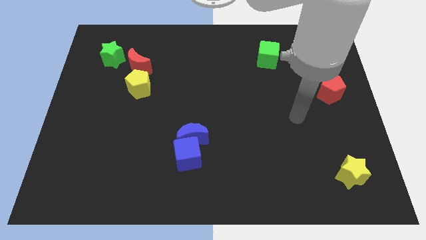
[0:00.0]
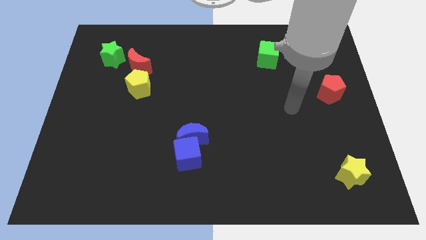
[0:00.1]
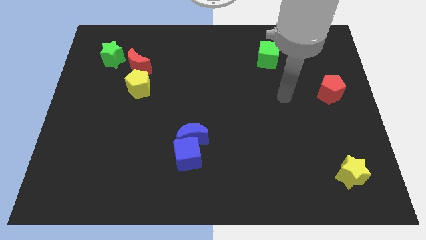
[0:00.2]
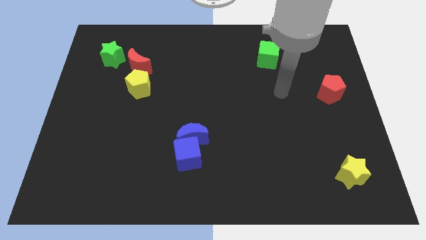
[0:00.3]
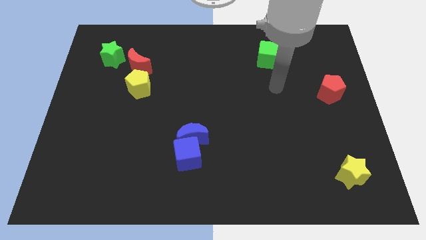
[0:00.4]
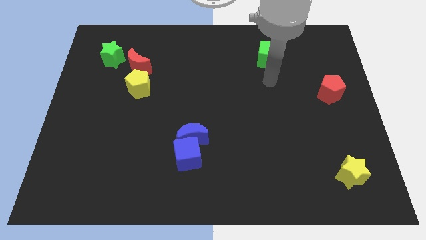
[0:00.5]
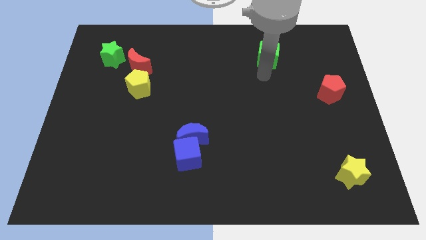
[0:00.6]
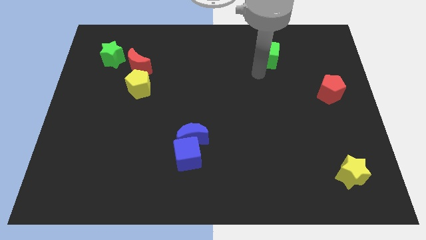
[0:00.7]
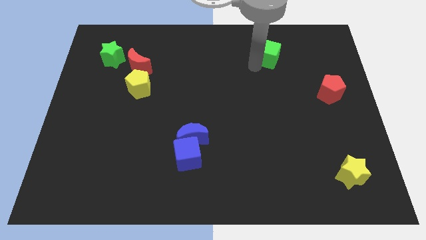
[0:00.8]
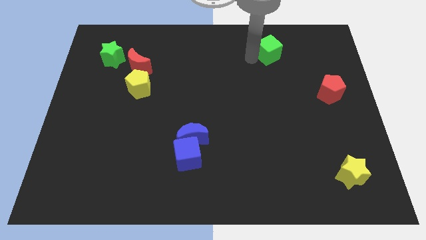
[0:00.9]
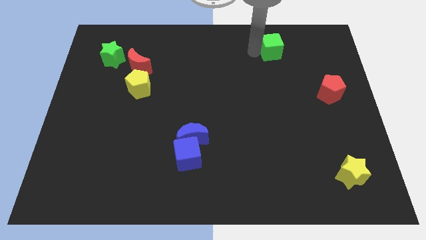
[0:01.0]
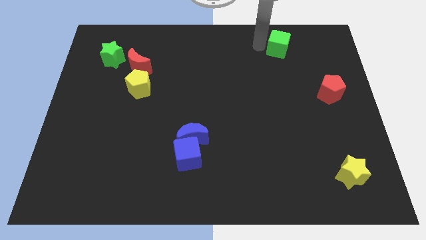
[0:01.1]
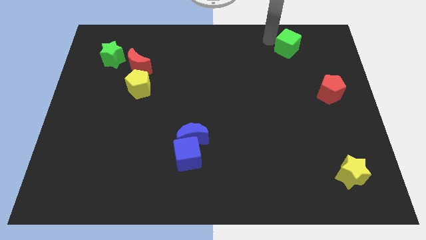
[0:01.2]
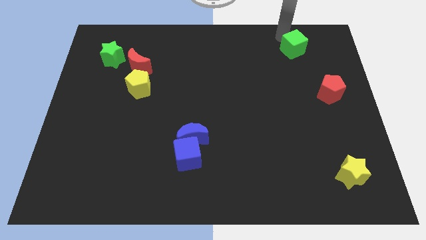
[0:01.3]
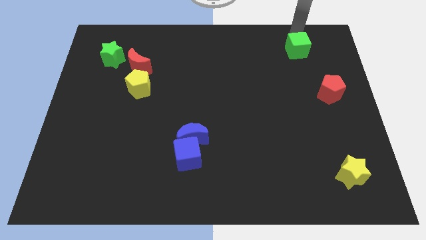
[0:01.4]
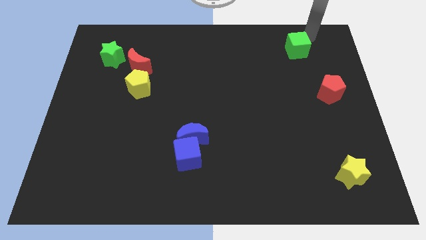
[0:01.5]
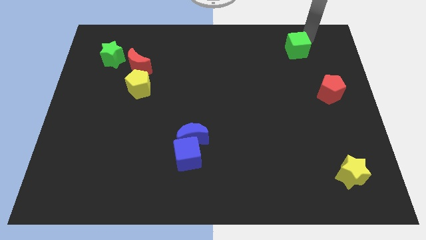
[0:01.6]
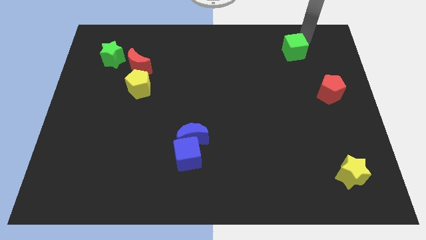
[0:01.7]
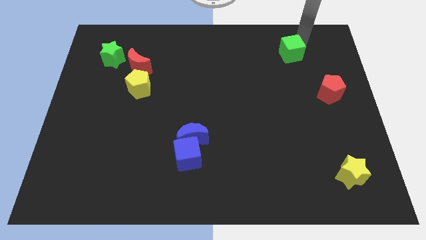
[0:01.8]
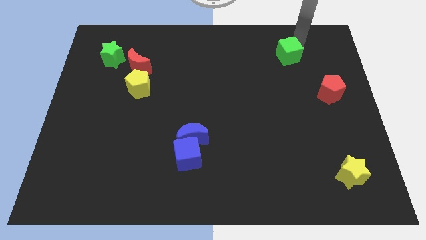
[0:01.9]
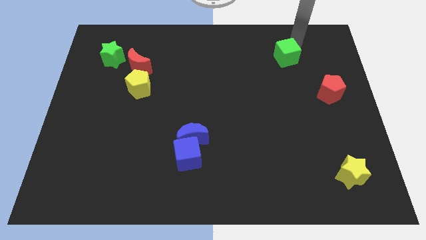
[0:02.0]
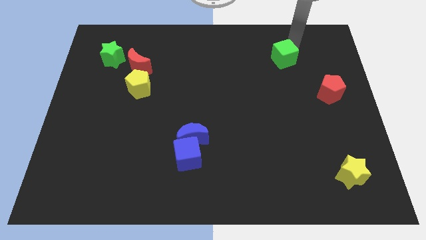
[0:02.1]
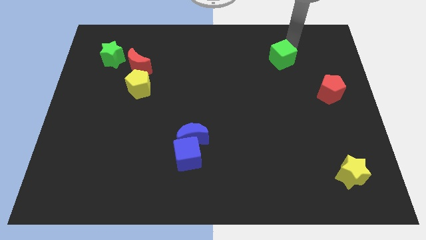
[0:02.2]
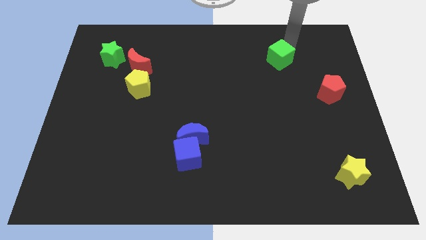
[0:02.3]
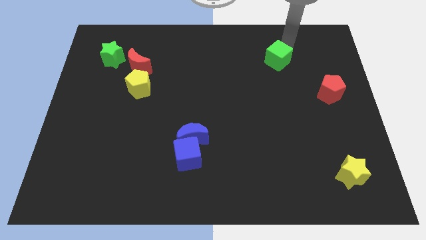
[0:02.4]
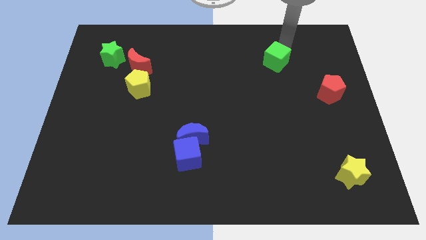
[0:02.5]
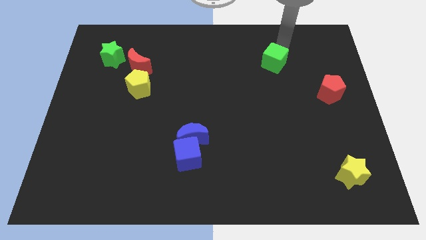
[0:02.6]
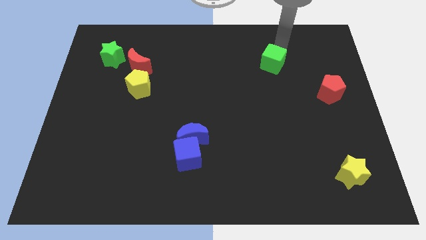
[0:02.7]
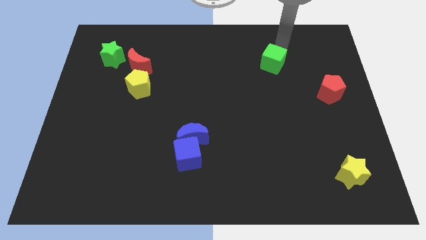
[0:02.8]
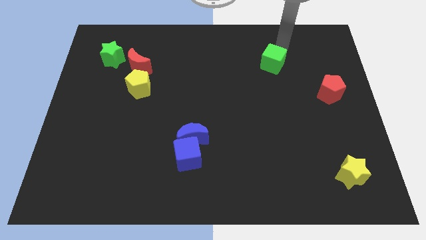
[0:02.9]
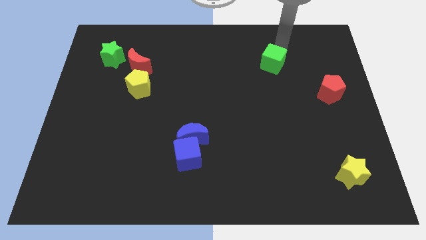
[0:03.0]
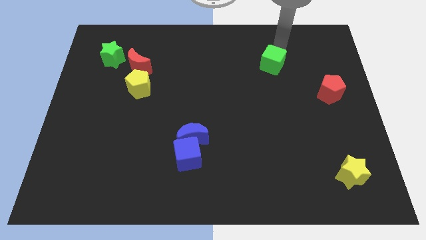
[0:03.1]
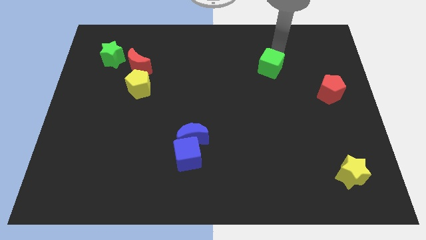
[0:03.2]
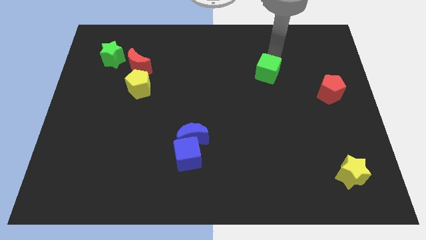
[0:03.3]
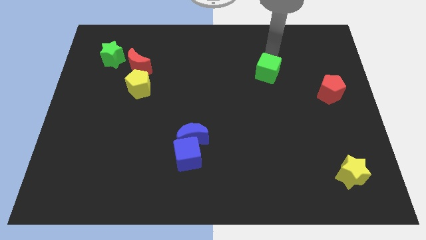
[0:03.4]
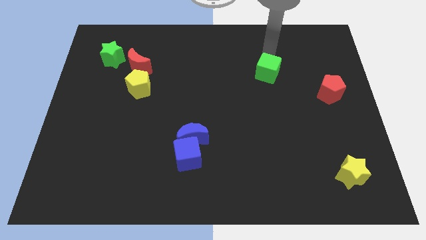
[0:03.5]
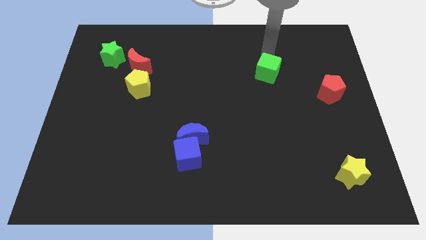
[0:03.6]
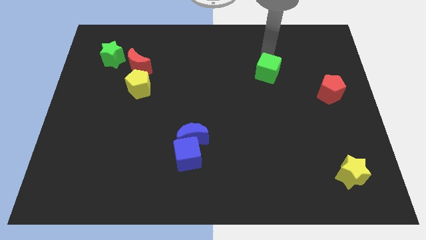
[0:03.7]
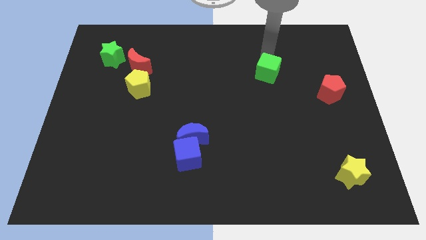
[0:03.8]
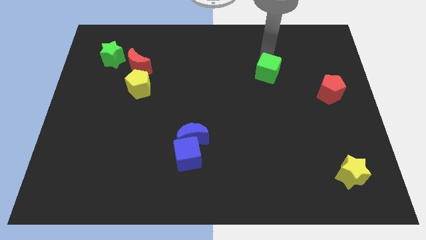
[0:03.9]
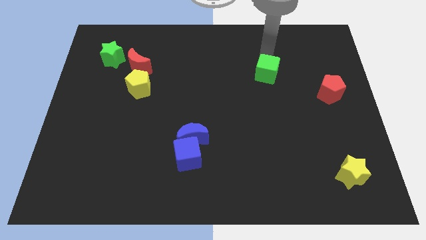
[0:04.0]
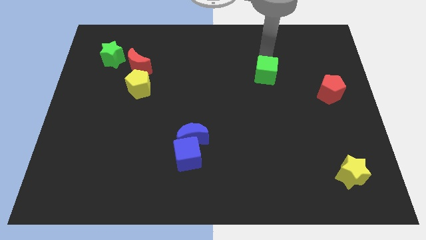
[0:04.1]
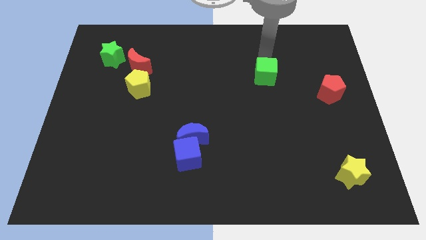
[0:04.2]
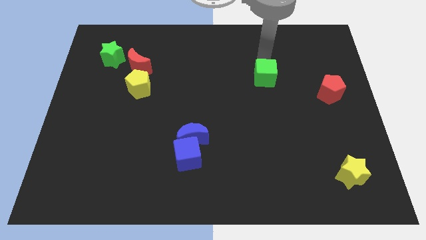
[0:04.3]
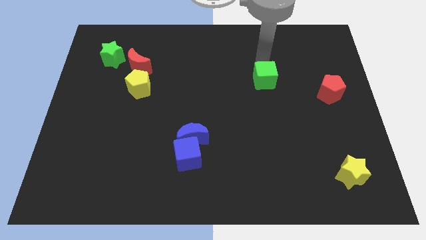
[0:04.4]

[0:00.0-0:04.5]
slightly slide the green cube down

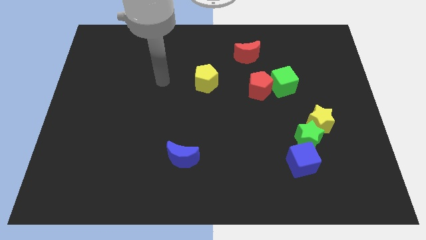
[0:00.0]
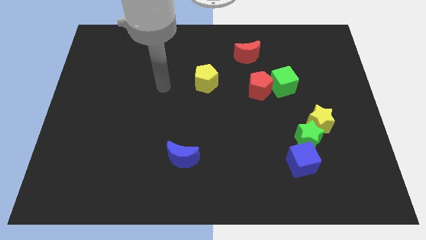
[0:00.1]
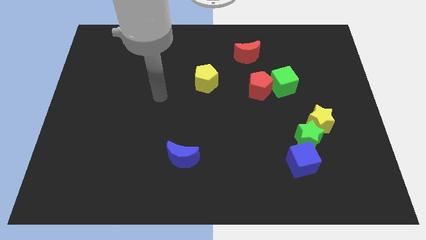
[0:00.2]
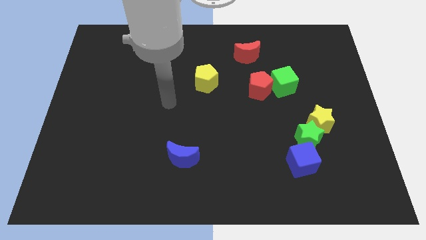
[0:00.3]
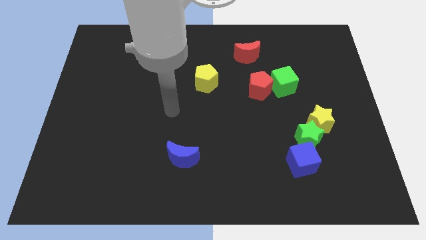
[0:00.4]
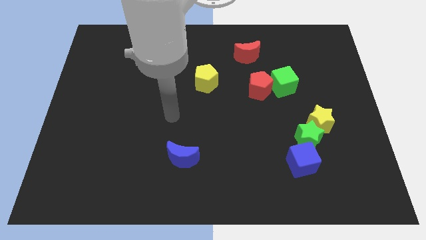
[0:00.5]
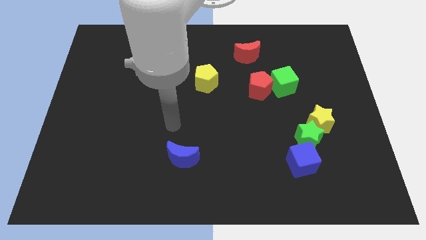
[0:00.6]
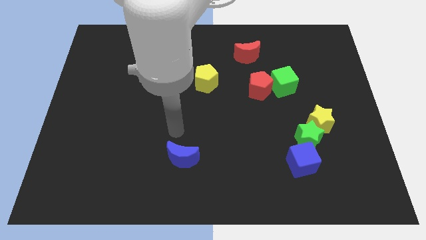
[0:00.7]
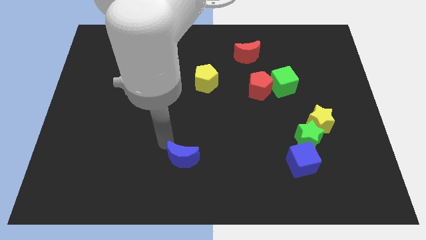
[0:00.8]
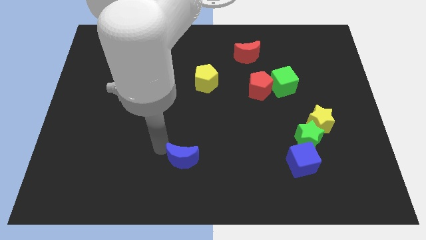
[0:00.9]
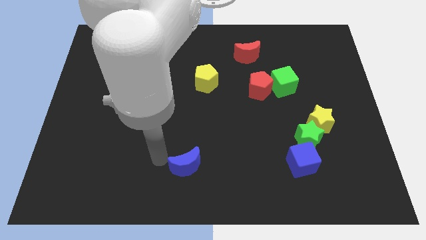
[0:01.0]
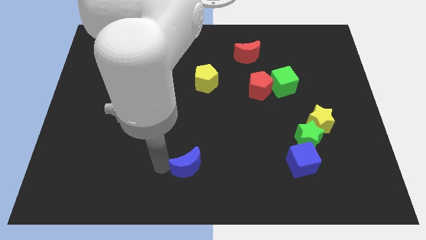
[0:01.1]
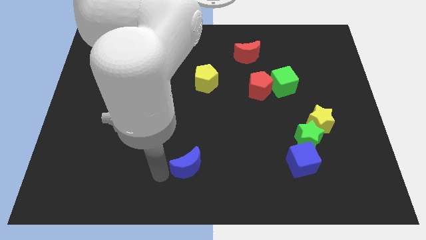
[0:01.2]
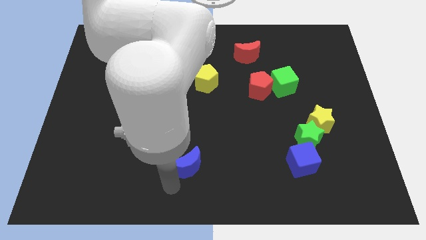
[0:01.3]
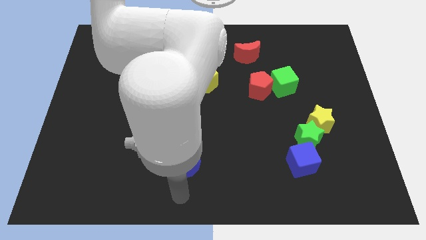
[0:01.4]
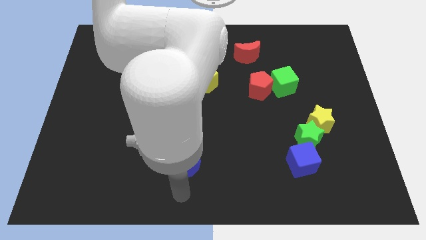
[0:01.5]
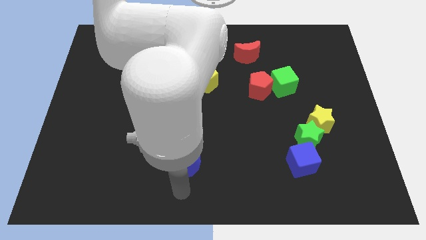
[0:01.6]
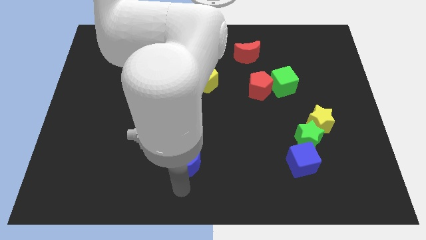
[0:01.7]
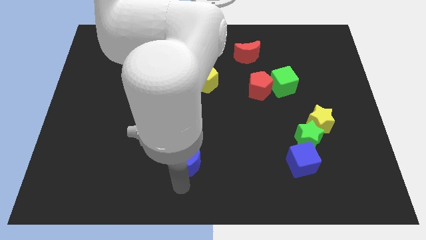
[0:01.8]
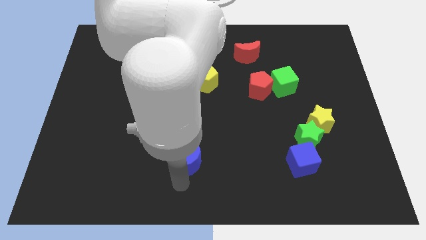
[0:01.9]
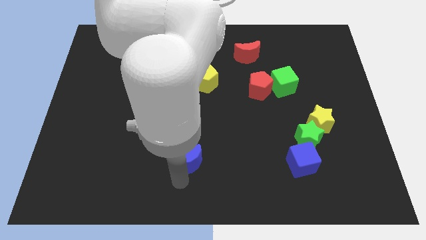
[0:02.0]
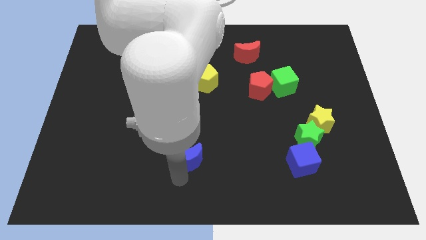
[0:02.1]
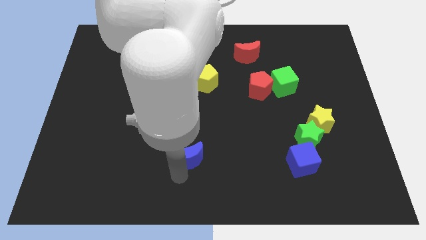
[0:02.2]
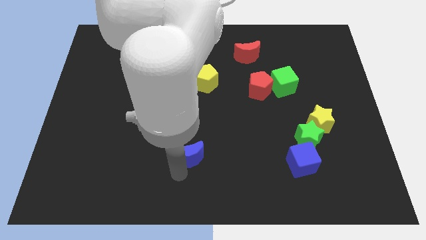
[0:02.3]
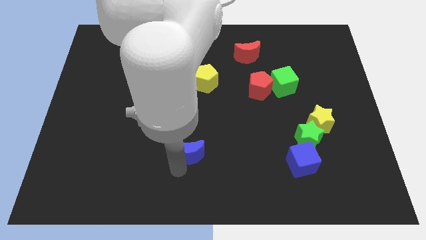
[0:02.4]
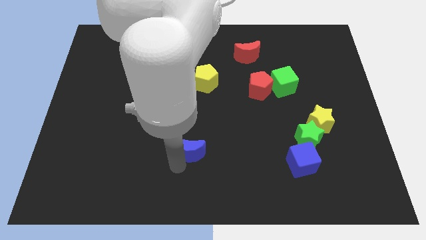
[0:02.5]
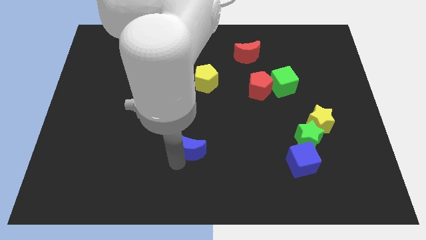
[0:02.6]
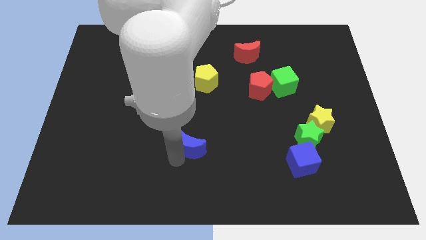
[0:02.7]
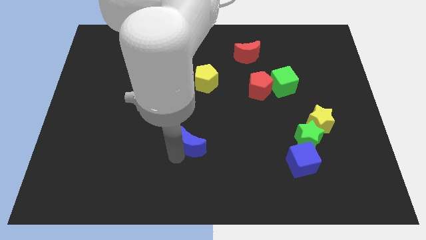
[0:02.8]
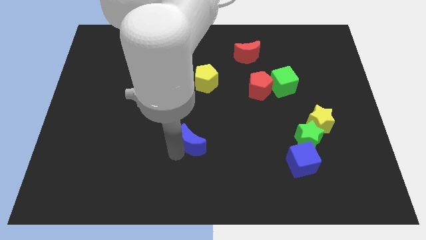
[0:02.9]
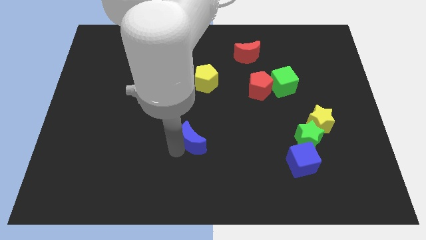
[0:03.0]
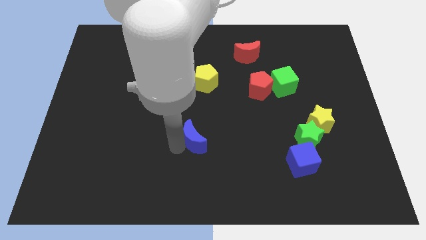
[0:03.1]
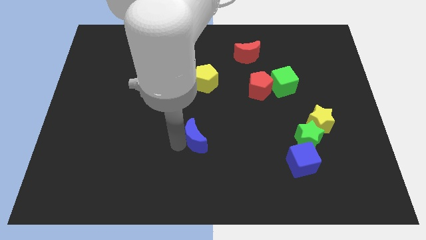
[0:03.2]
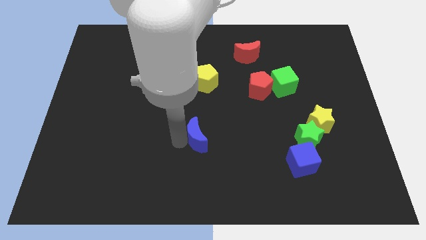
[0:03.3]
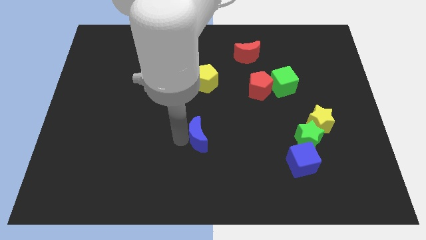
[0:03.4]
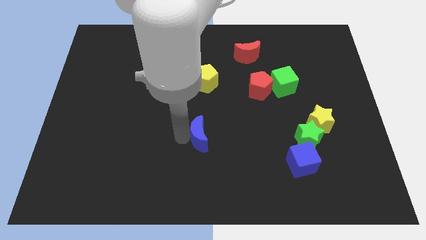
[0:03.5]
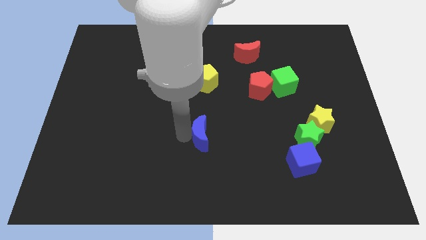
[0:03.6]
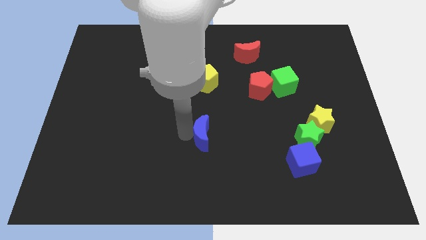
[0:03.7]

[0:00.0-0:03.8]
push the blue moon a little diagonally up and right
